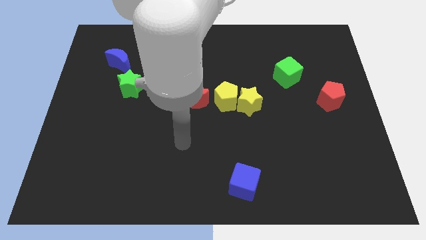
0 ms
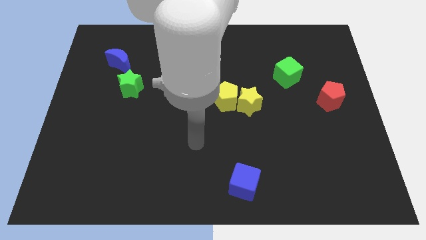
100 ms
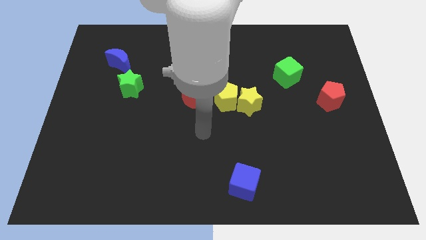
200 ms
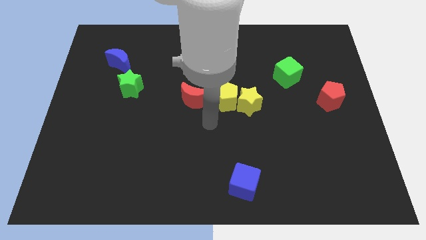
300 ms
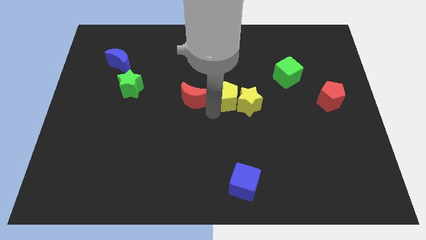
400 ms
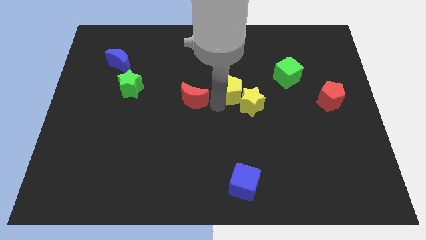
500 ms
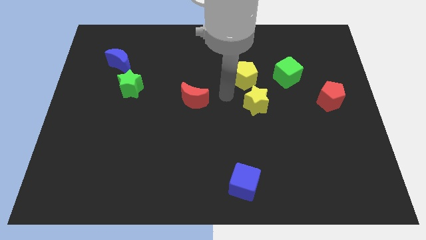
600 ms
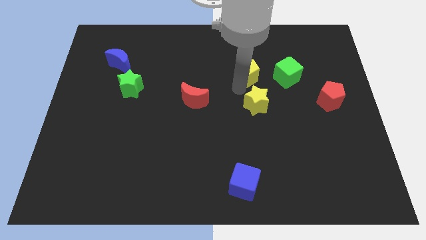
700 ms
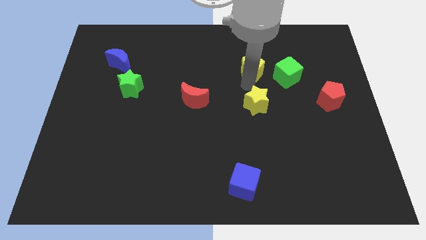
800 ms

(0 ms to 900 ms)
move the yellow star away from the yellow pentagon

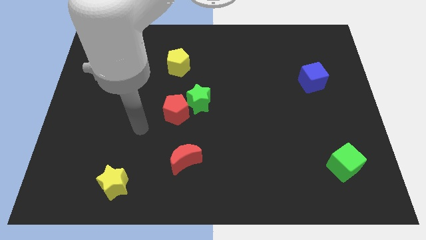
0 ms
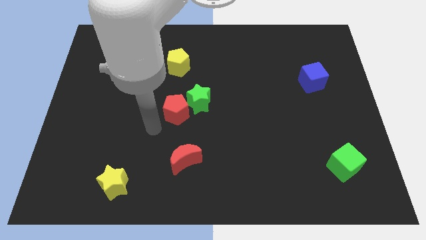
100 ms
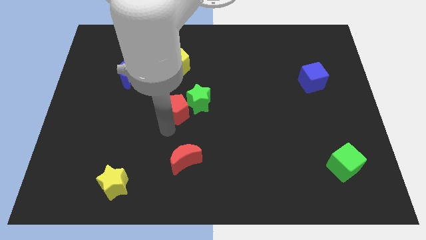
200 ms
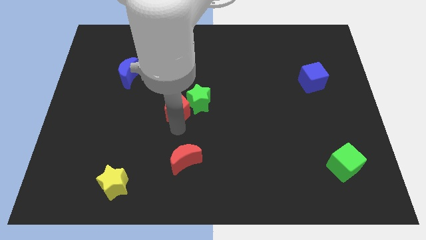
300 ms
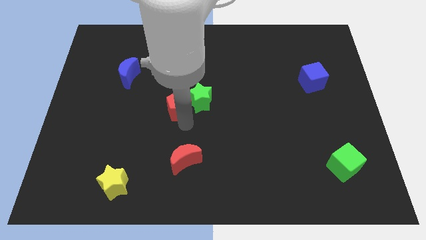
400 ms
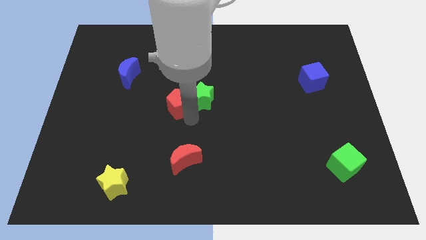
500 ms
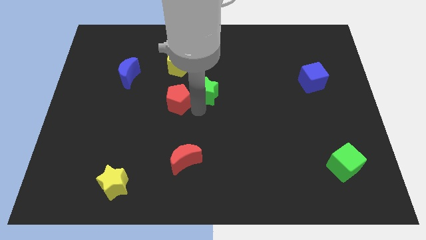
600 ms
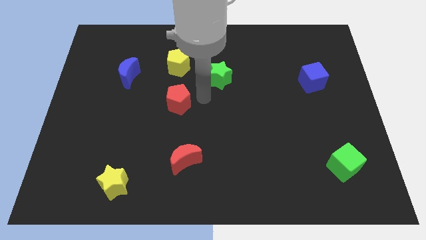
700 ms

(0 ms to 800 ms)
separate the red pentagon from the green star

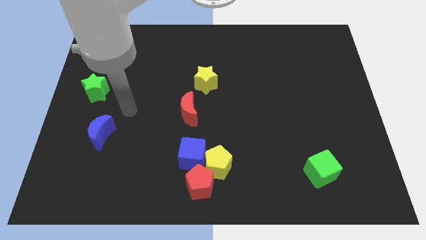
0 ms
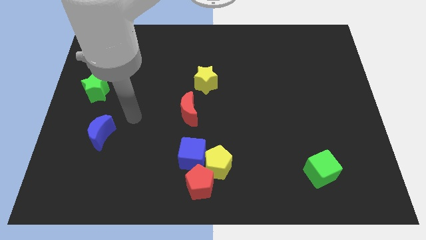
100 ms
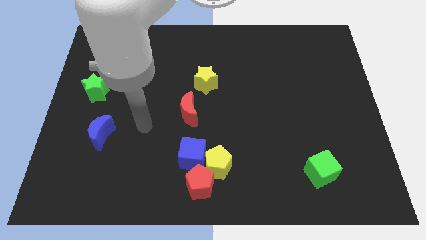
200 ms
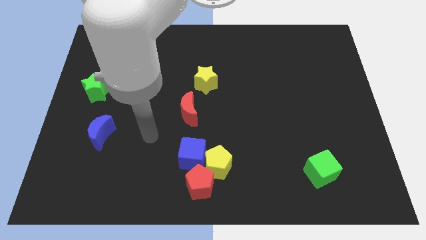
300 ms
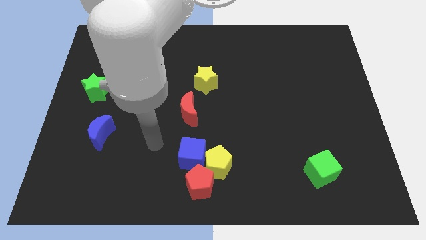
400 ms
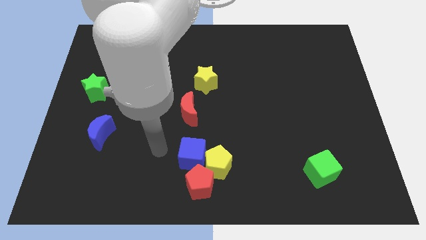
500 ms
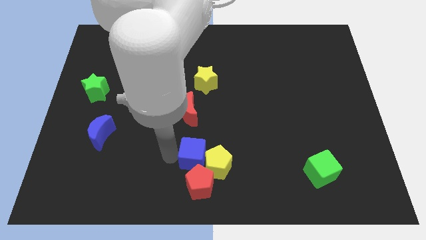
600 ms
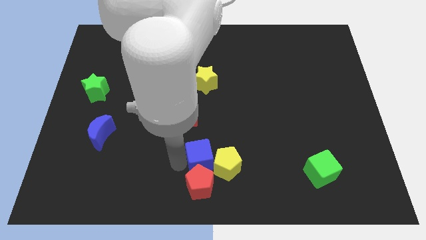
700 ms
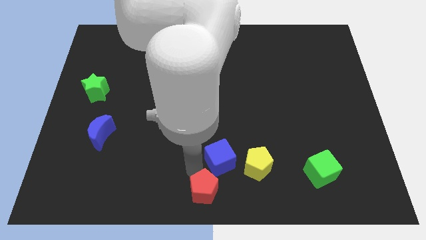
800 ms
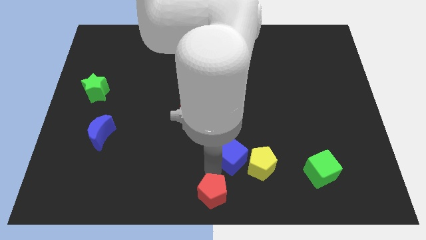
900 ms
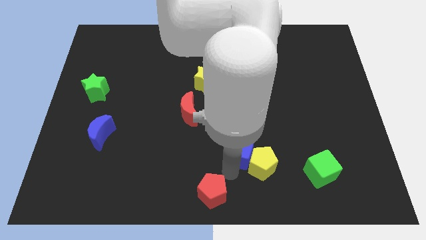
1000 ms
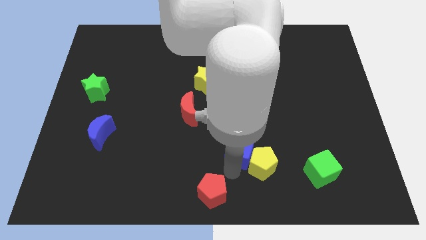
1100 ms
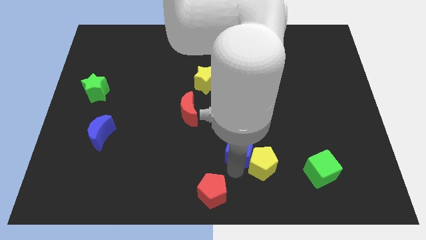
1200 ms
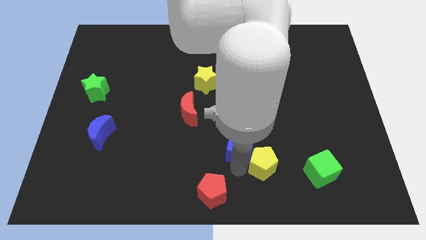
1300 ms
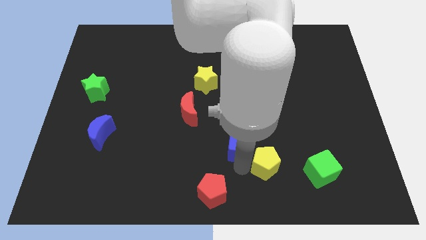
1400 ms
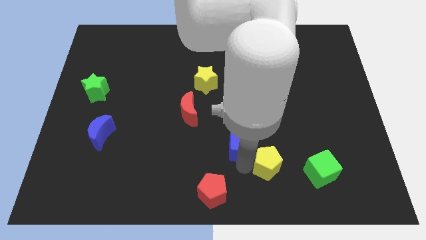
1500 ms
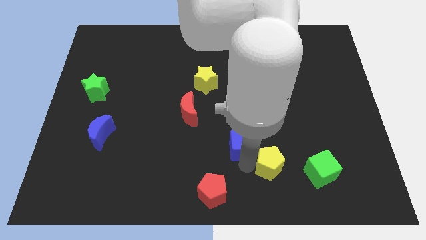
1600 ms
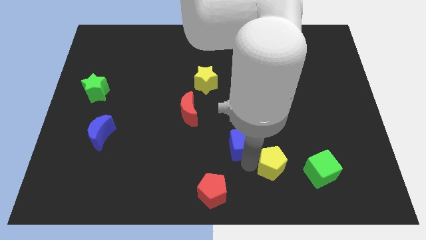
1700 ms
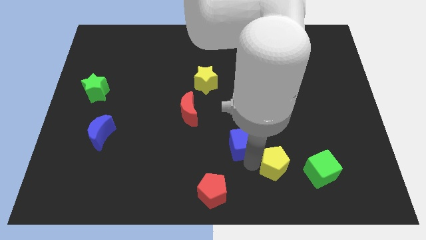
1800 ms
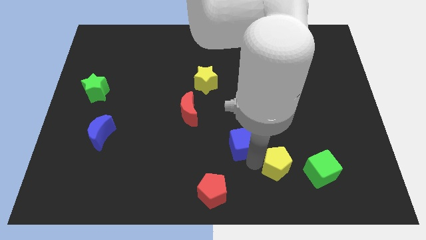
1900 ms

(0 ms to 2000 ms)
pull the yellow pentagon apart from the red pentagon and blue cube

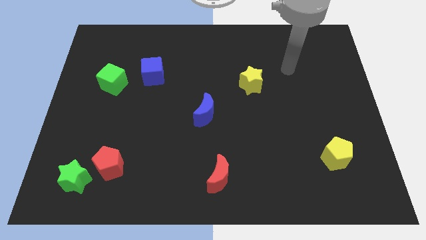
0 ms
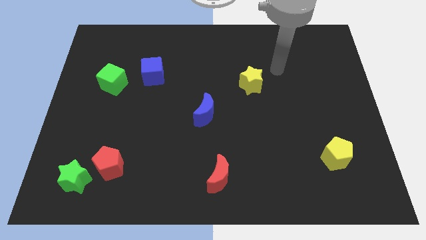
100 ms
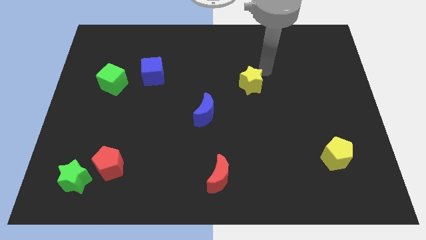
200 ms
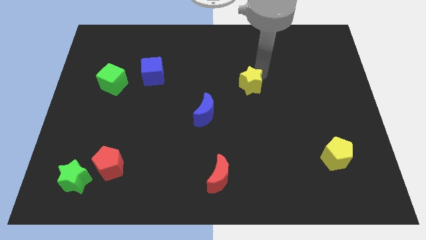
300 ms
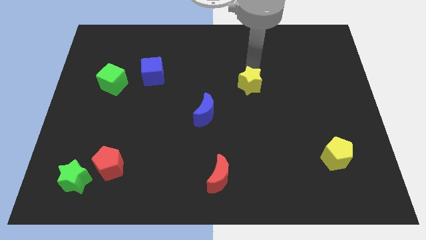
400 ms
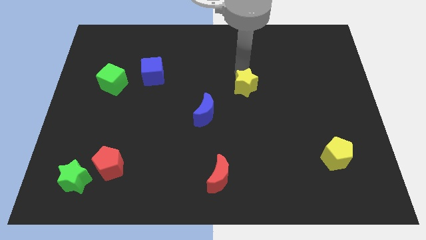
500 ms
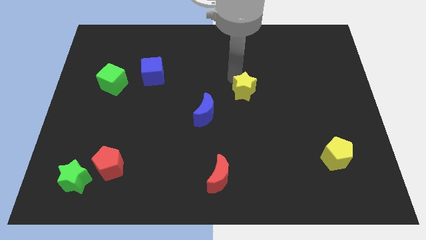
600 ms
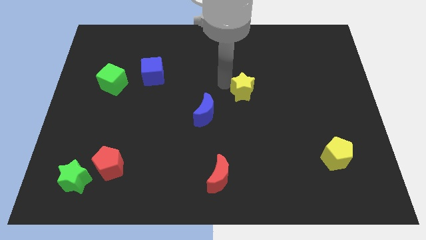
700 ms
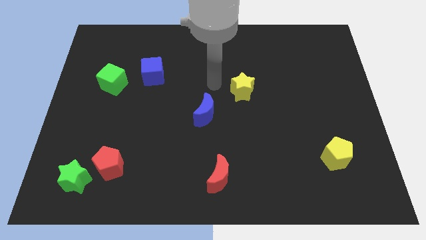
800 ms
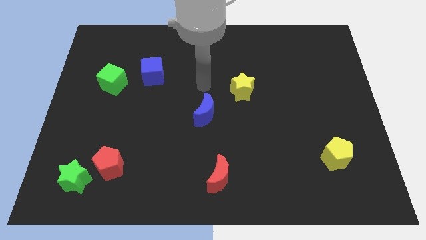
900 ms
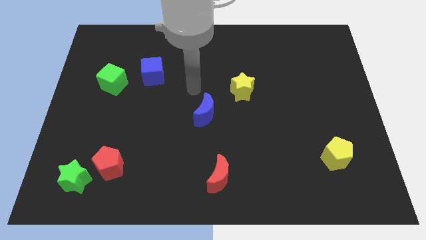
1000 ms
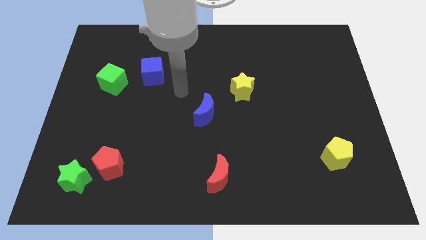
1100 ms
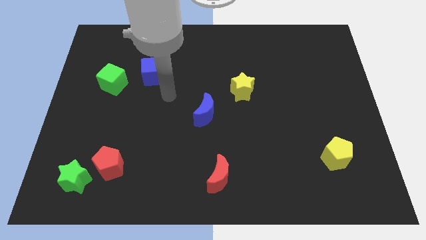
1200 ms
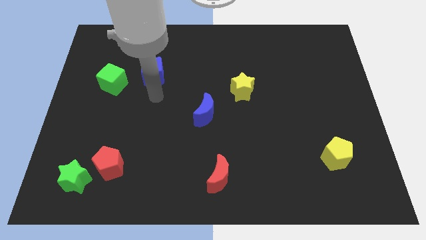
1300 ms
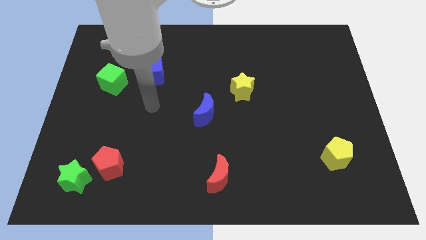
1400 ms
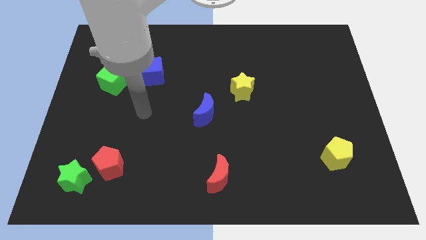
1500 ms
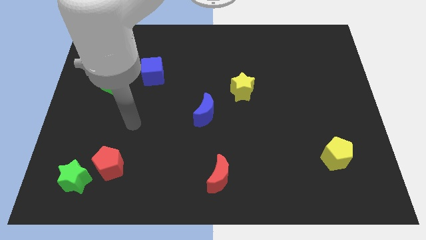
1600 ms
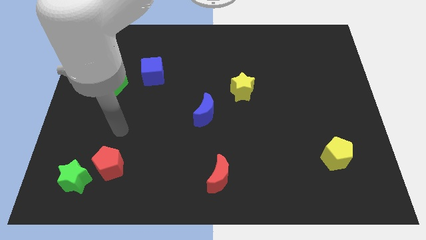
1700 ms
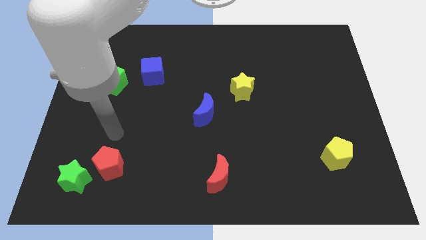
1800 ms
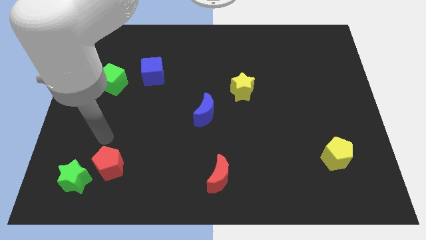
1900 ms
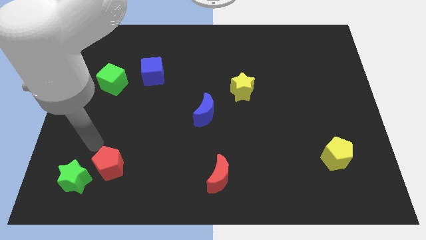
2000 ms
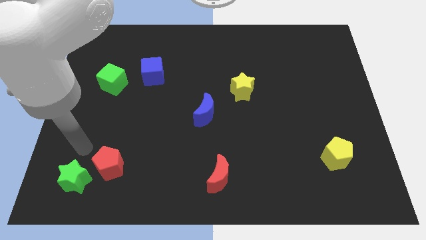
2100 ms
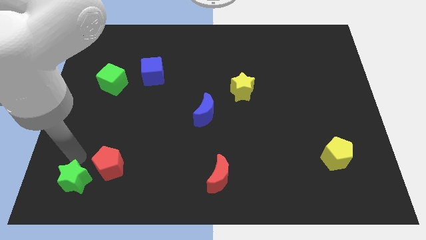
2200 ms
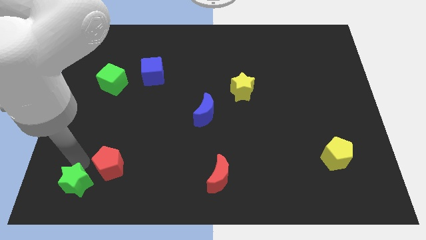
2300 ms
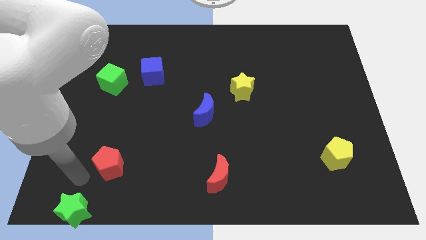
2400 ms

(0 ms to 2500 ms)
move the red pentagon away from the green star

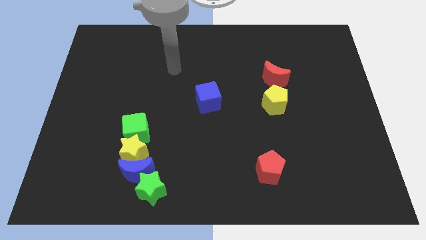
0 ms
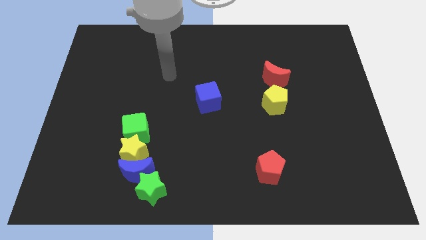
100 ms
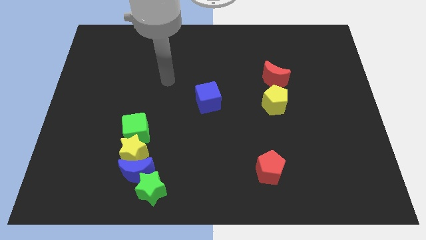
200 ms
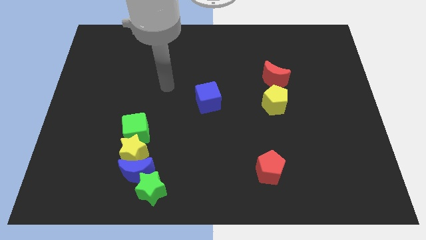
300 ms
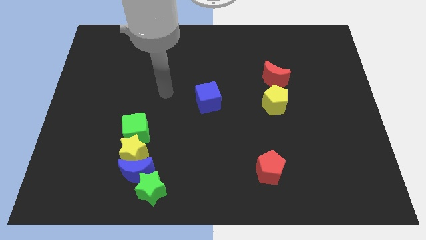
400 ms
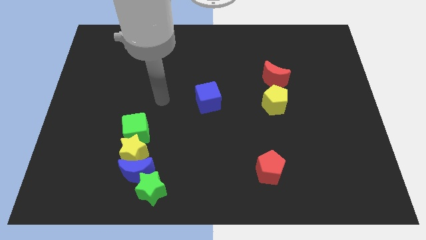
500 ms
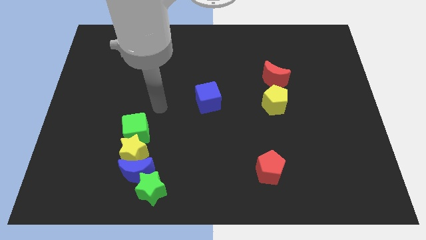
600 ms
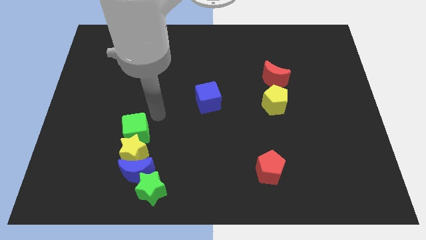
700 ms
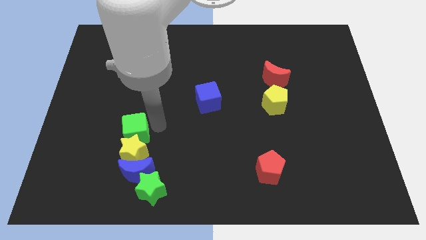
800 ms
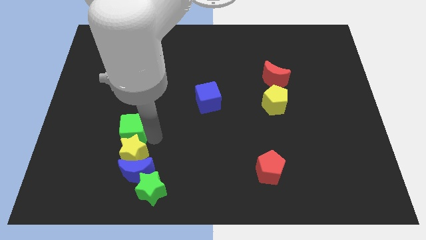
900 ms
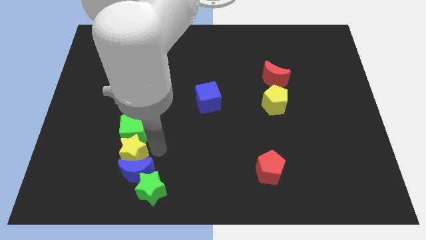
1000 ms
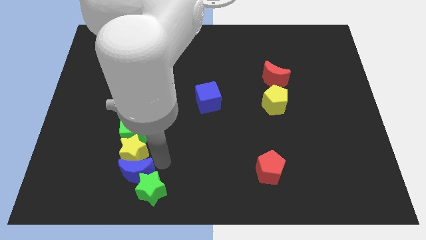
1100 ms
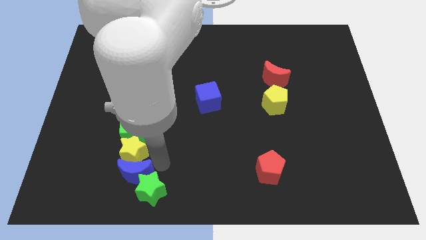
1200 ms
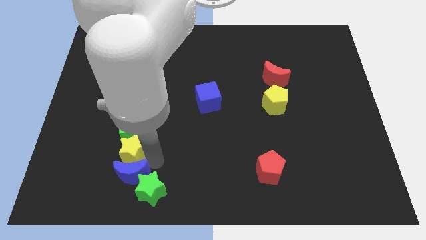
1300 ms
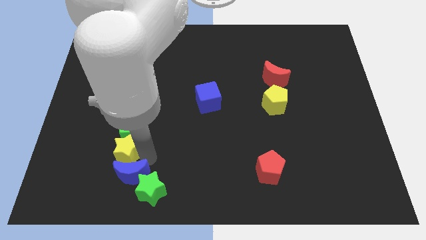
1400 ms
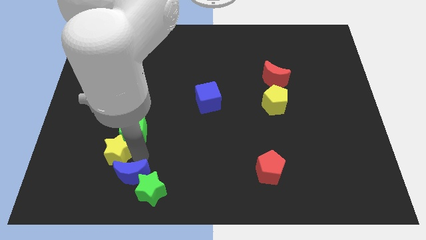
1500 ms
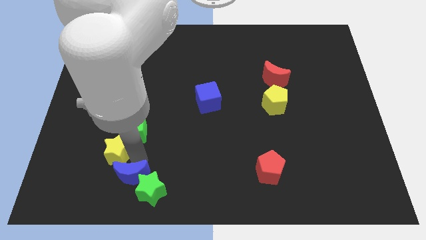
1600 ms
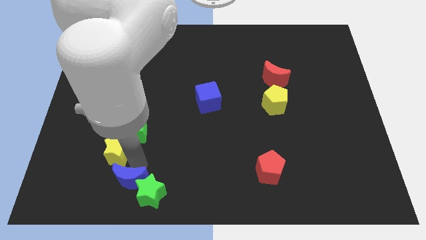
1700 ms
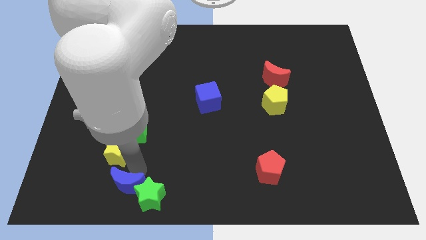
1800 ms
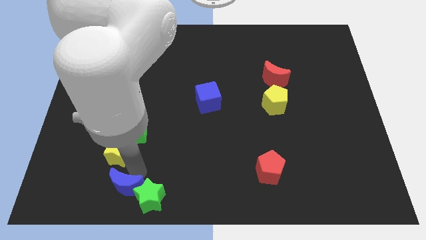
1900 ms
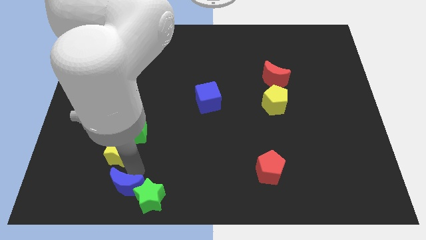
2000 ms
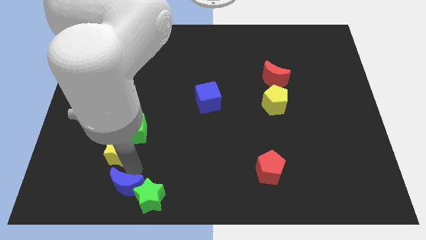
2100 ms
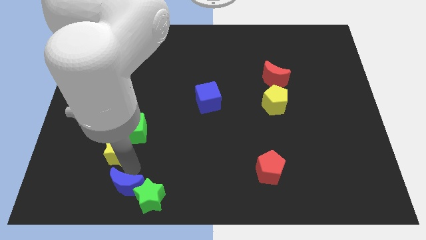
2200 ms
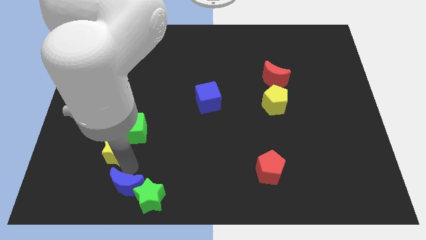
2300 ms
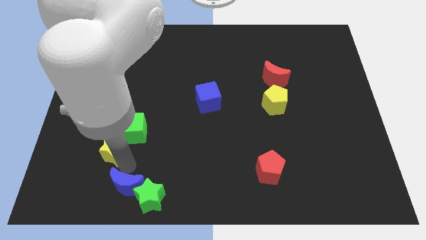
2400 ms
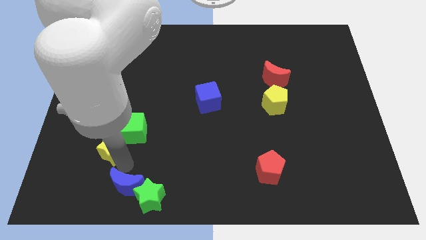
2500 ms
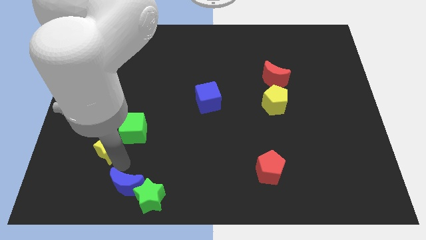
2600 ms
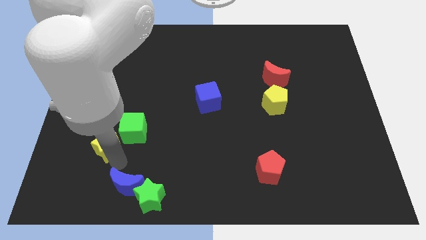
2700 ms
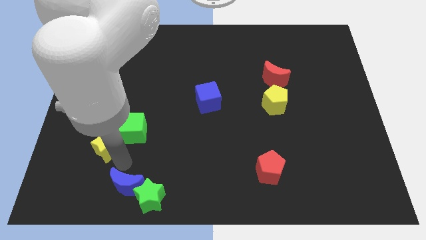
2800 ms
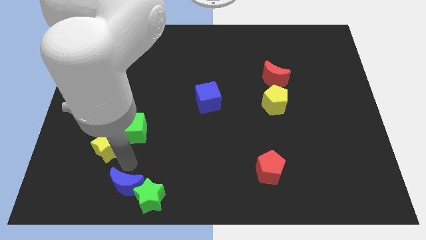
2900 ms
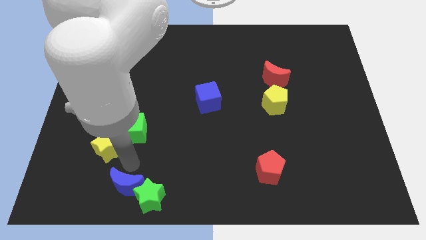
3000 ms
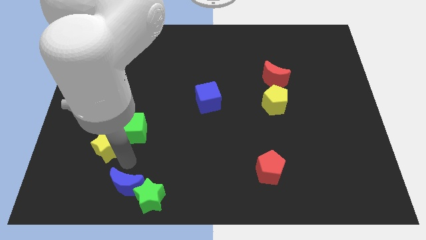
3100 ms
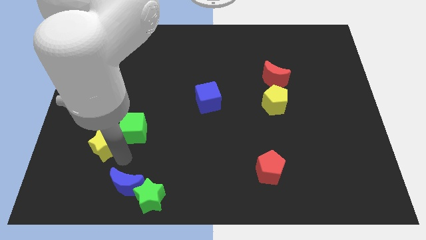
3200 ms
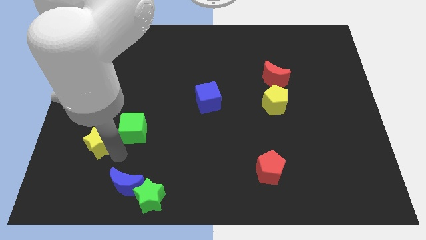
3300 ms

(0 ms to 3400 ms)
separate the yellow star from the blue moon, green cube, and green star
